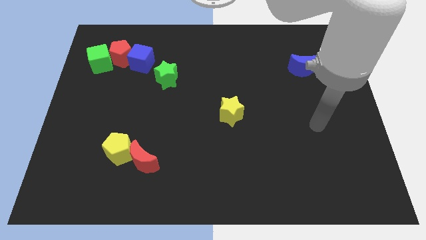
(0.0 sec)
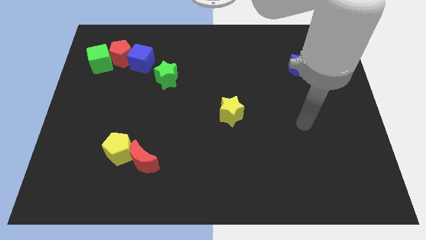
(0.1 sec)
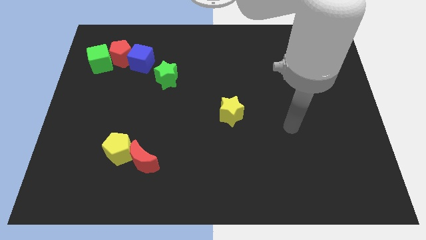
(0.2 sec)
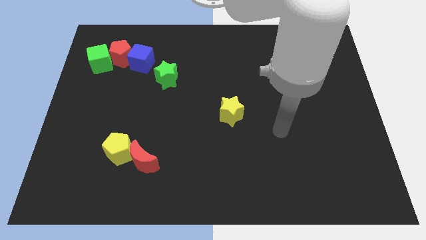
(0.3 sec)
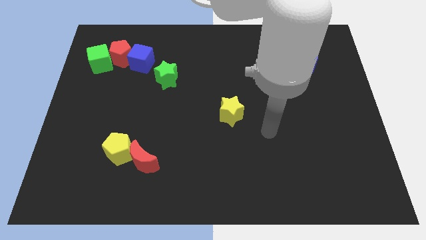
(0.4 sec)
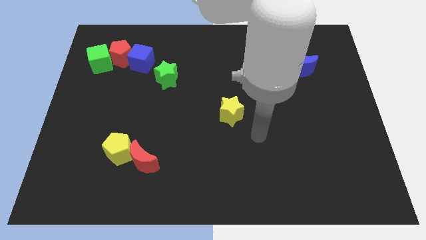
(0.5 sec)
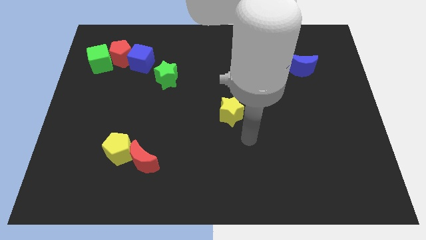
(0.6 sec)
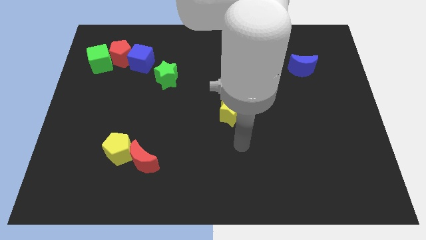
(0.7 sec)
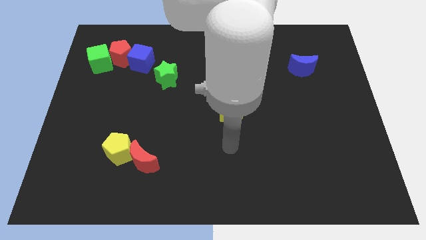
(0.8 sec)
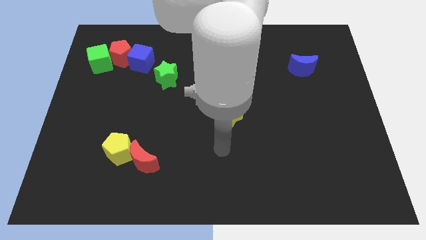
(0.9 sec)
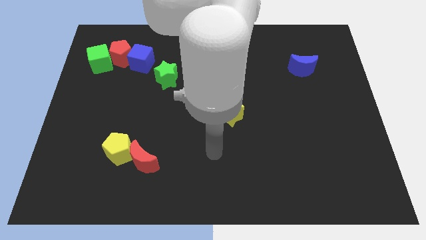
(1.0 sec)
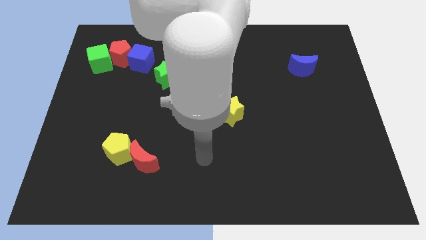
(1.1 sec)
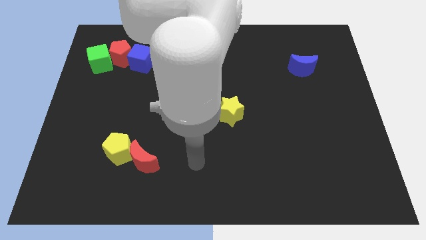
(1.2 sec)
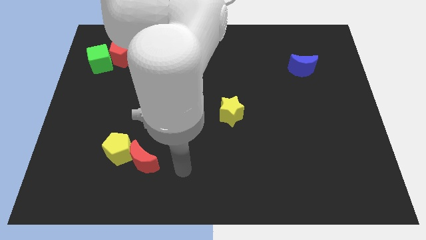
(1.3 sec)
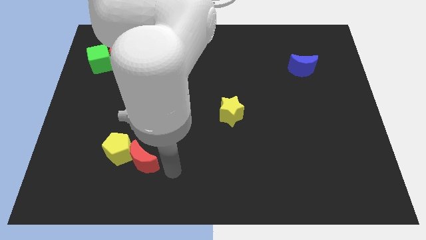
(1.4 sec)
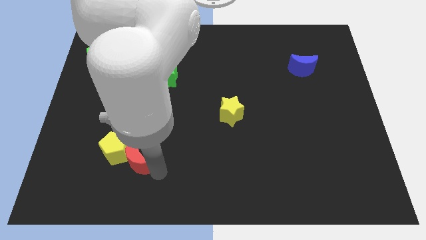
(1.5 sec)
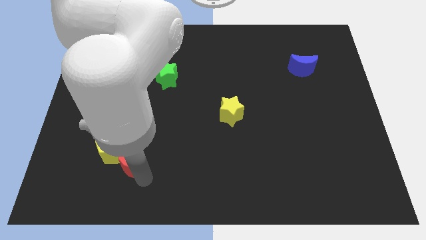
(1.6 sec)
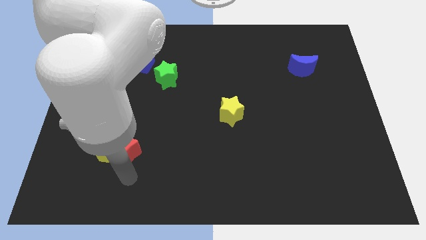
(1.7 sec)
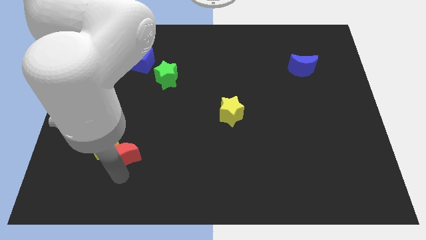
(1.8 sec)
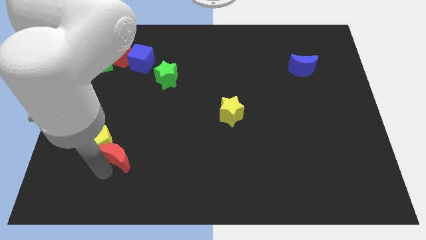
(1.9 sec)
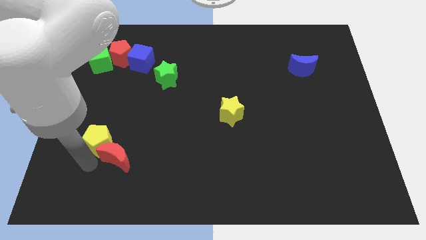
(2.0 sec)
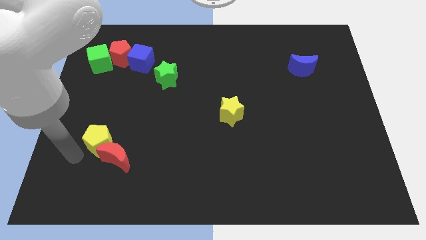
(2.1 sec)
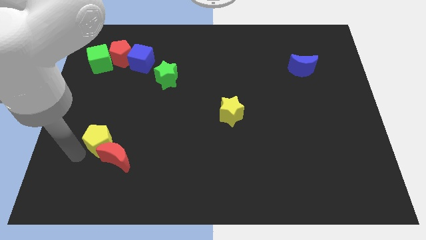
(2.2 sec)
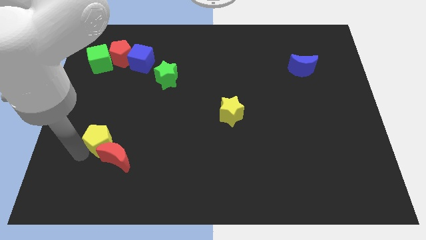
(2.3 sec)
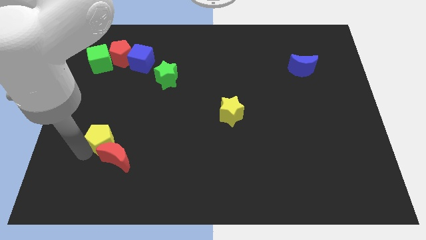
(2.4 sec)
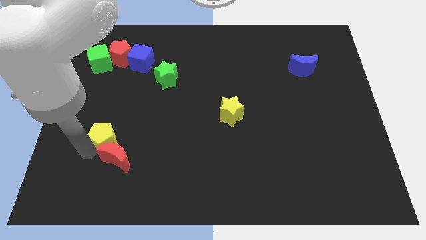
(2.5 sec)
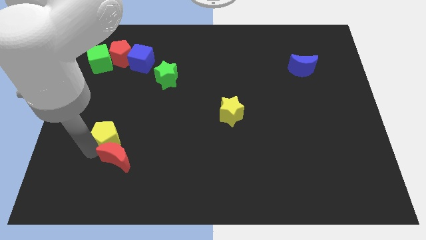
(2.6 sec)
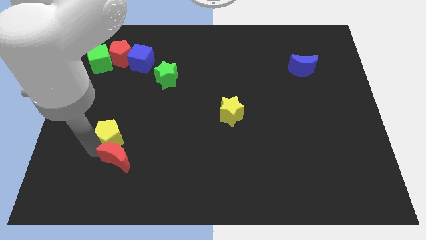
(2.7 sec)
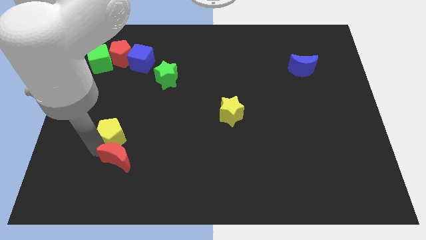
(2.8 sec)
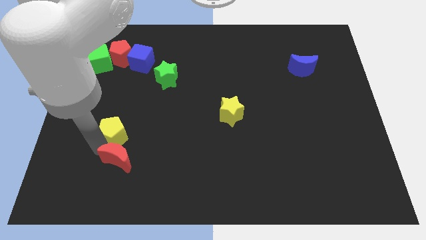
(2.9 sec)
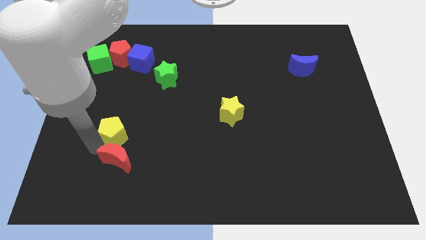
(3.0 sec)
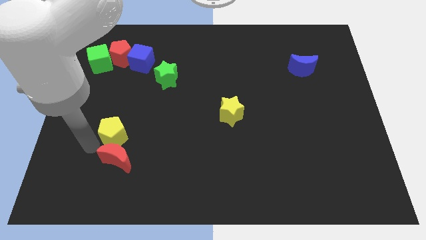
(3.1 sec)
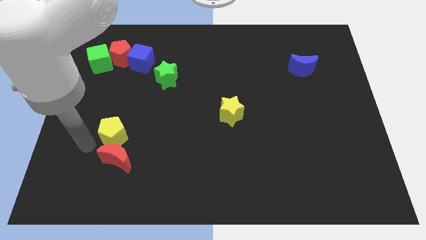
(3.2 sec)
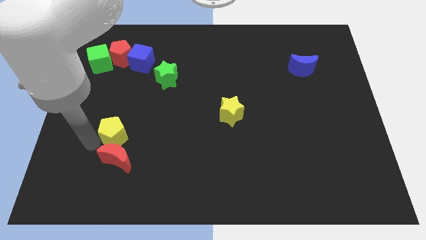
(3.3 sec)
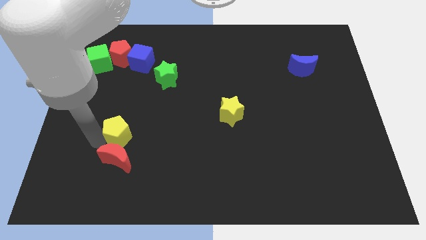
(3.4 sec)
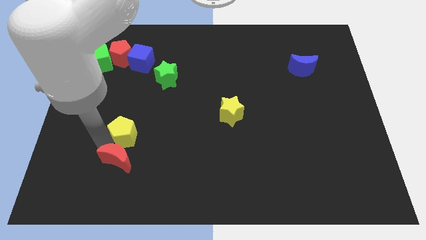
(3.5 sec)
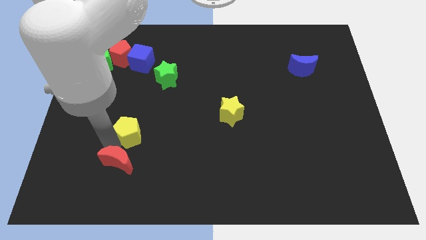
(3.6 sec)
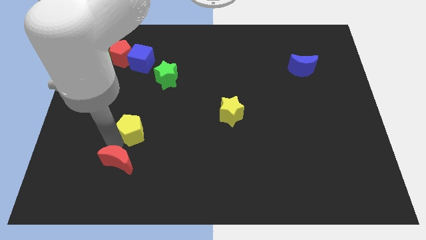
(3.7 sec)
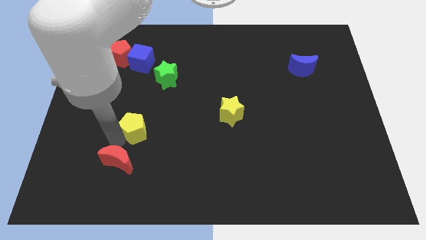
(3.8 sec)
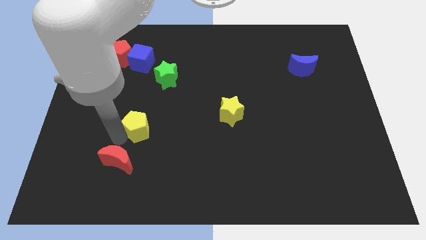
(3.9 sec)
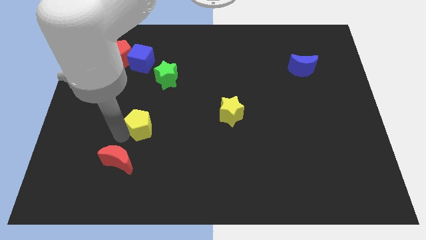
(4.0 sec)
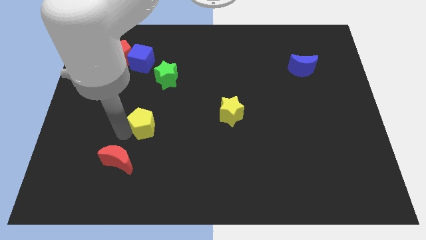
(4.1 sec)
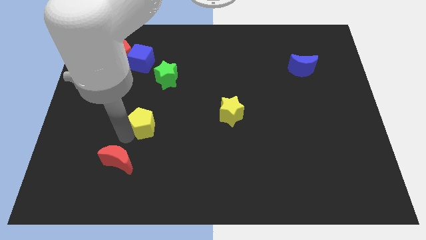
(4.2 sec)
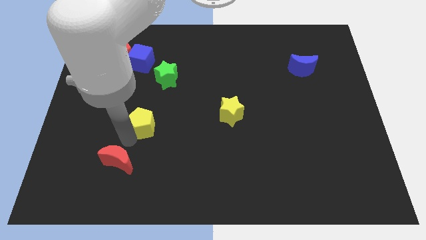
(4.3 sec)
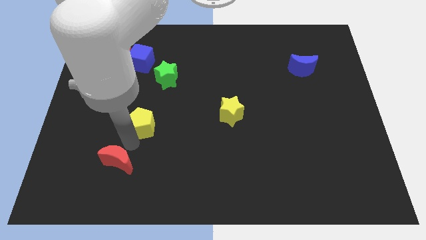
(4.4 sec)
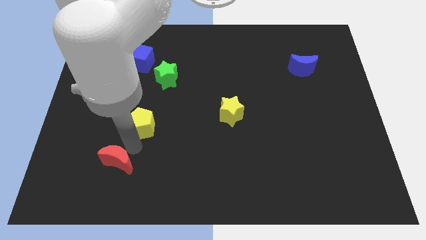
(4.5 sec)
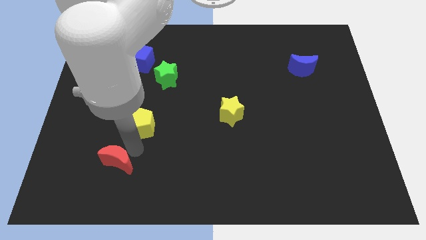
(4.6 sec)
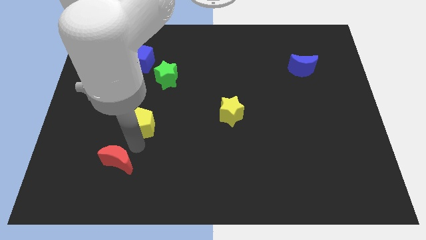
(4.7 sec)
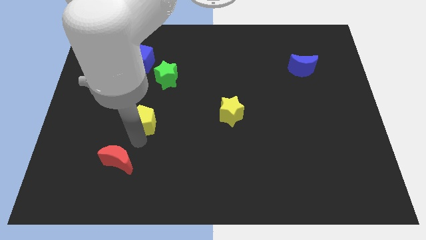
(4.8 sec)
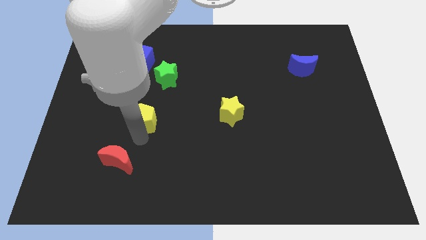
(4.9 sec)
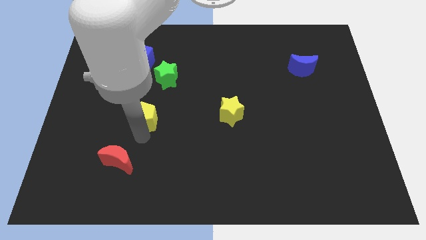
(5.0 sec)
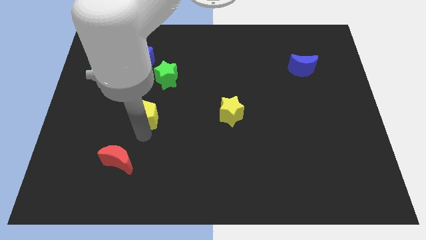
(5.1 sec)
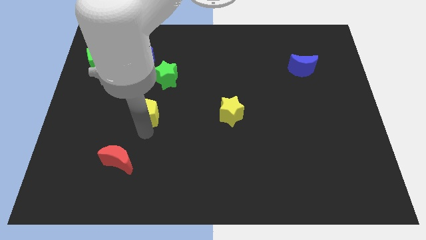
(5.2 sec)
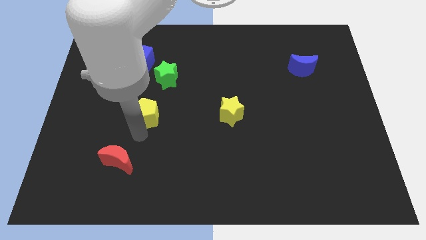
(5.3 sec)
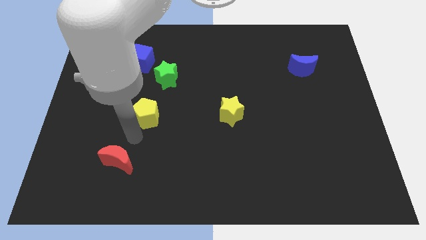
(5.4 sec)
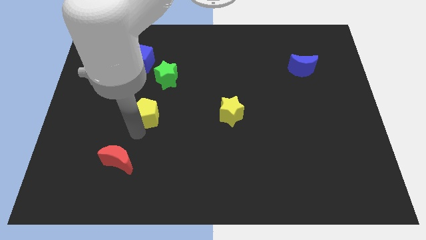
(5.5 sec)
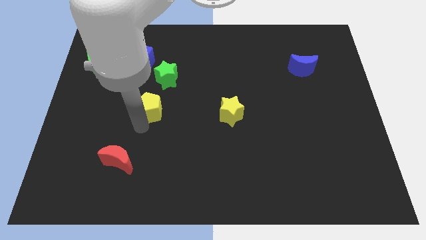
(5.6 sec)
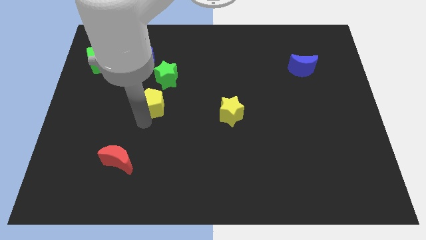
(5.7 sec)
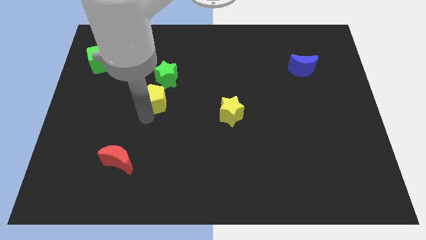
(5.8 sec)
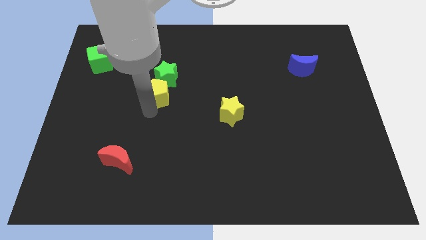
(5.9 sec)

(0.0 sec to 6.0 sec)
push the yellow pentagon close to the green star
